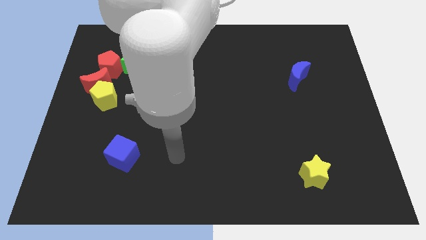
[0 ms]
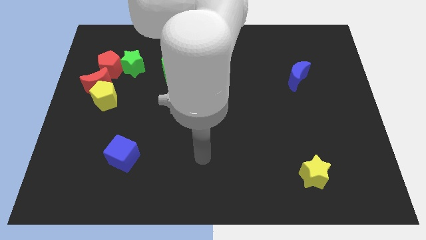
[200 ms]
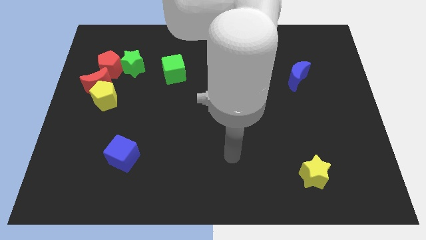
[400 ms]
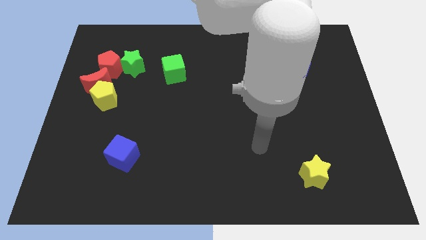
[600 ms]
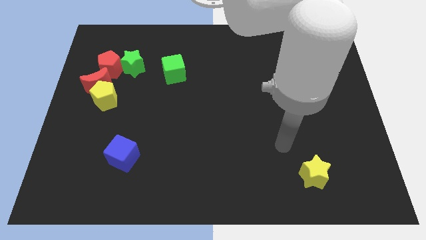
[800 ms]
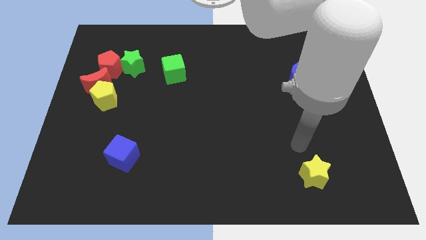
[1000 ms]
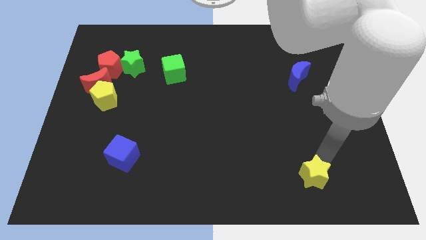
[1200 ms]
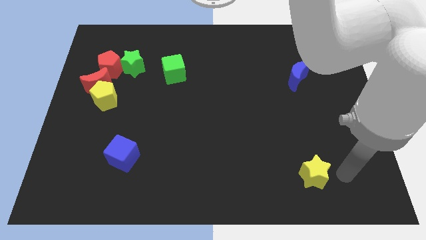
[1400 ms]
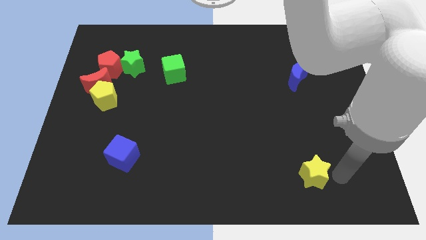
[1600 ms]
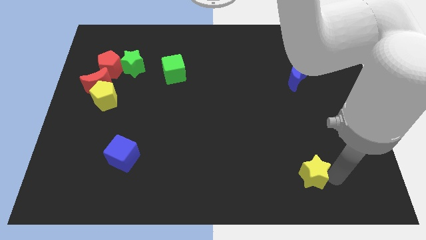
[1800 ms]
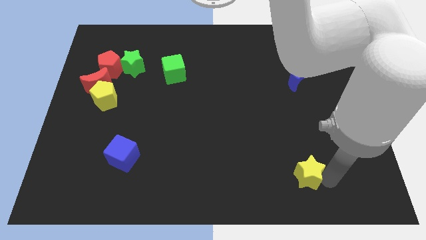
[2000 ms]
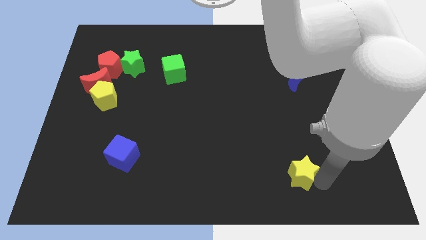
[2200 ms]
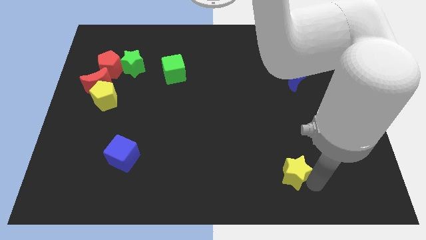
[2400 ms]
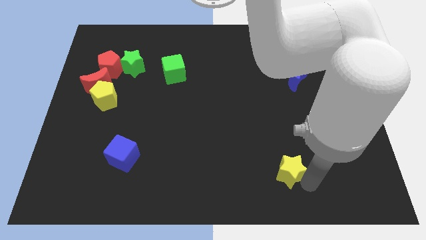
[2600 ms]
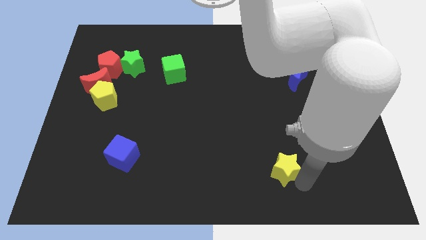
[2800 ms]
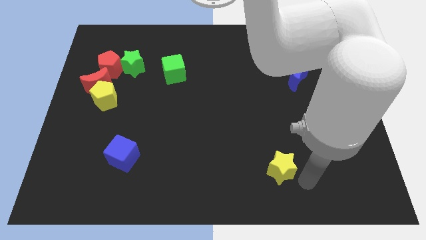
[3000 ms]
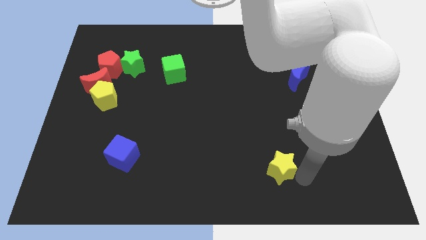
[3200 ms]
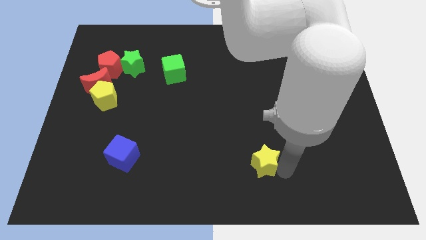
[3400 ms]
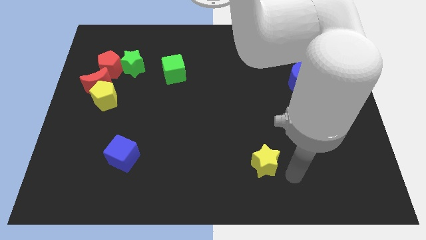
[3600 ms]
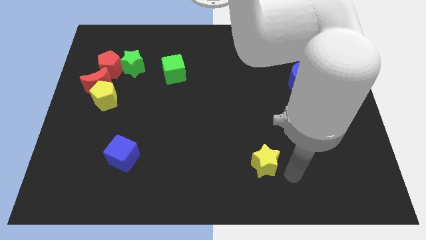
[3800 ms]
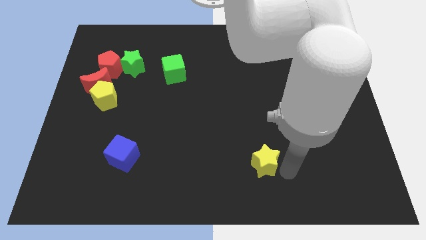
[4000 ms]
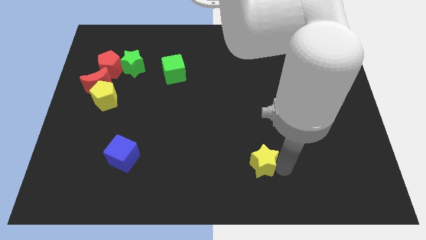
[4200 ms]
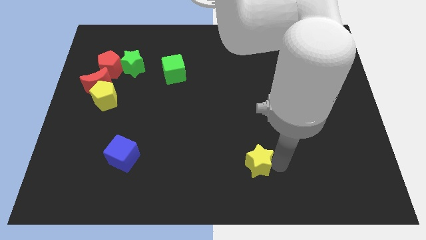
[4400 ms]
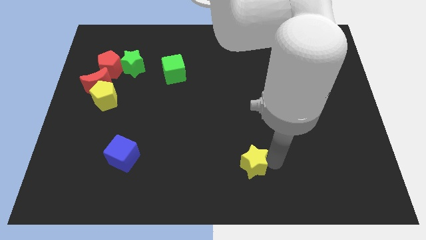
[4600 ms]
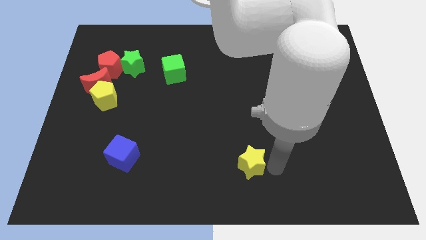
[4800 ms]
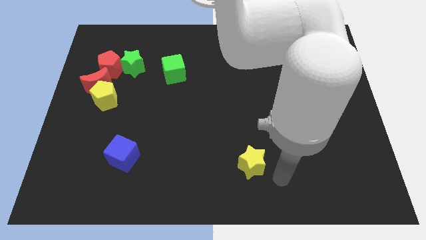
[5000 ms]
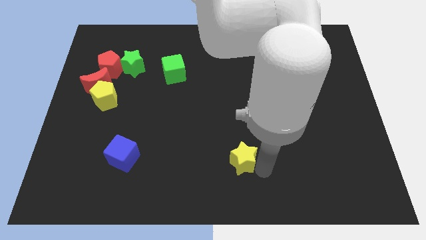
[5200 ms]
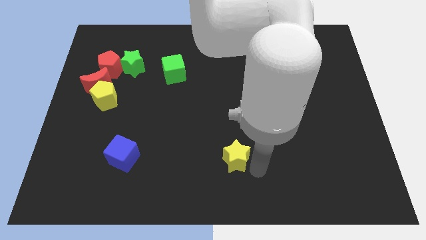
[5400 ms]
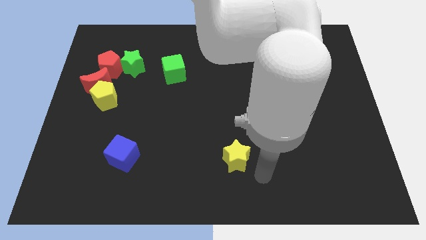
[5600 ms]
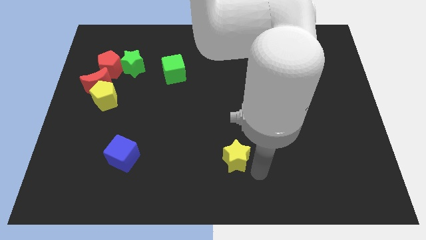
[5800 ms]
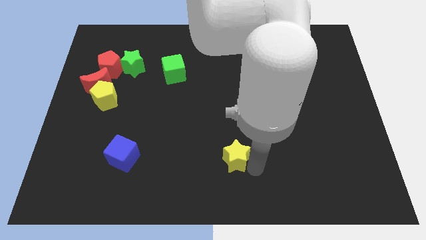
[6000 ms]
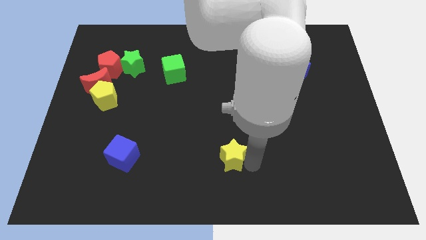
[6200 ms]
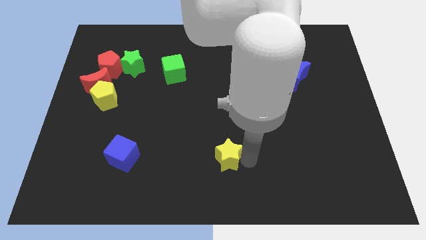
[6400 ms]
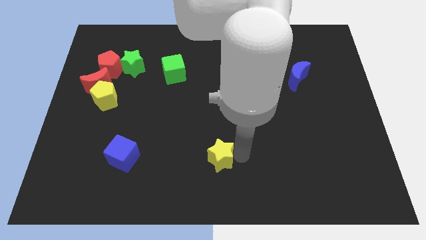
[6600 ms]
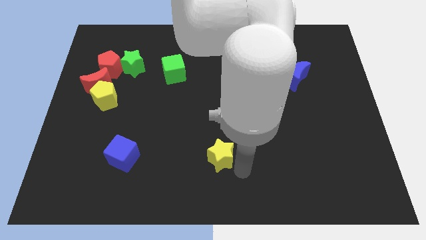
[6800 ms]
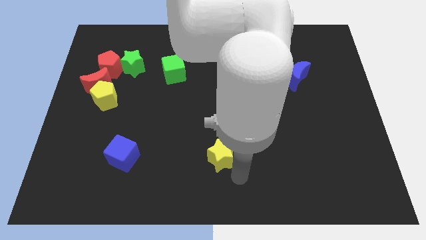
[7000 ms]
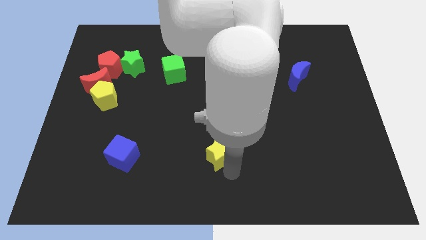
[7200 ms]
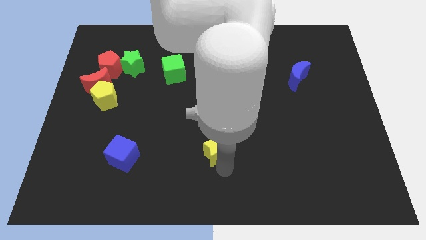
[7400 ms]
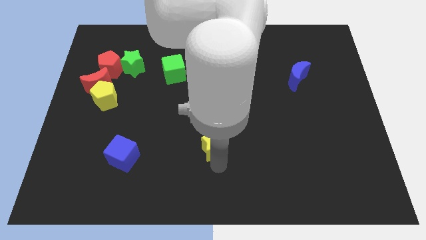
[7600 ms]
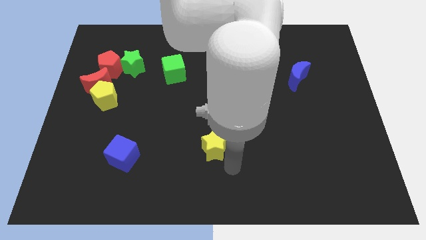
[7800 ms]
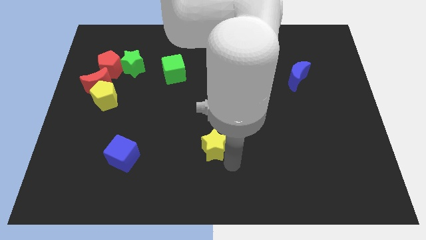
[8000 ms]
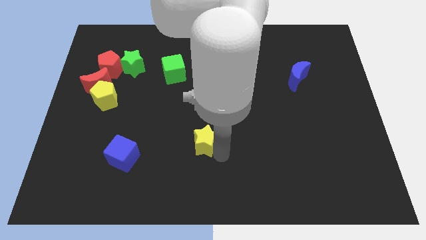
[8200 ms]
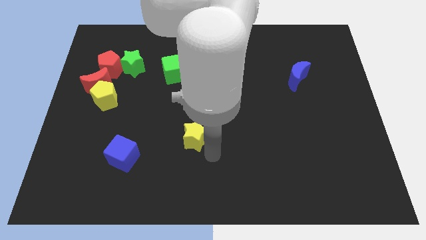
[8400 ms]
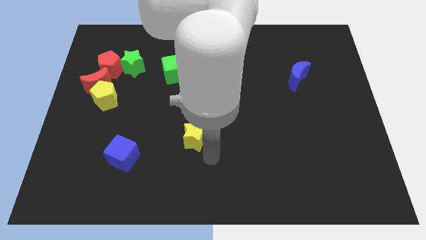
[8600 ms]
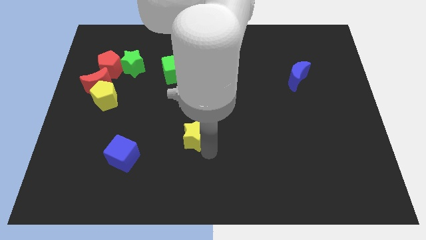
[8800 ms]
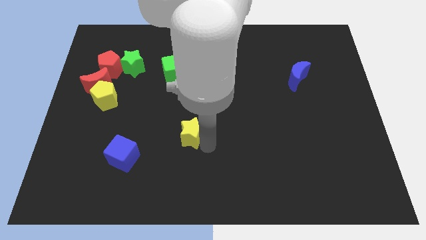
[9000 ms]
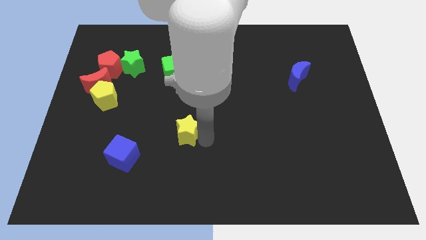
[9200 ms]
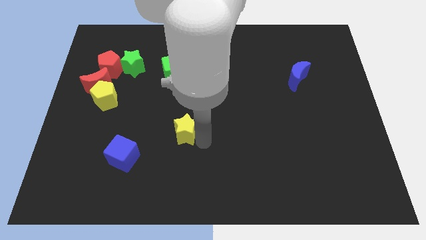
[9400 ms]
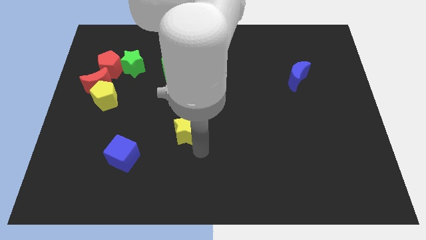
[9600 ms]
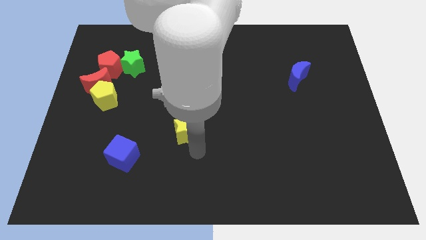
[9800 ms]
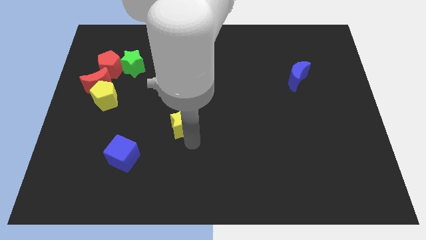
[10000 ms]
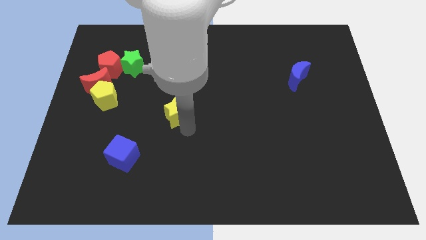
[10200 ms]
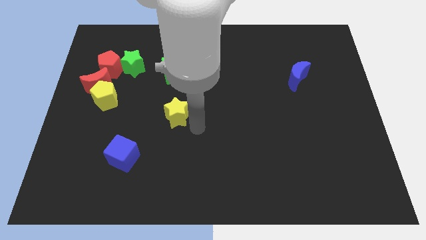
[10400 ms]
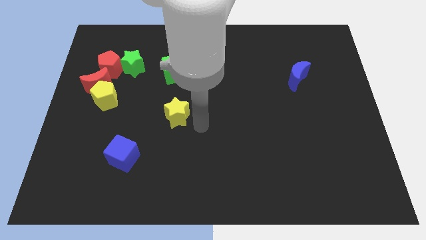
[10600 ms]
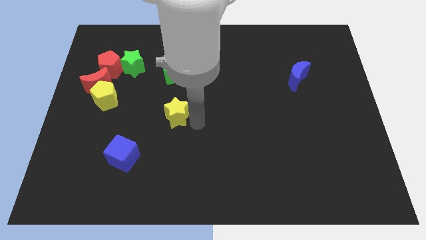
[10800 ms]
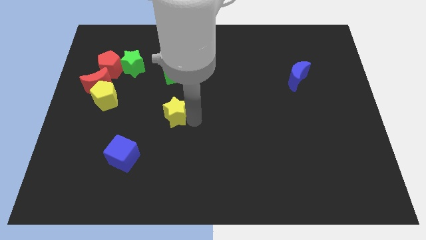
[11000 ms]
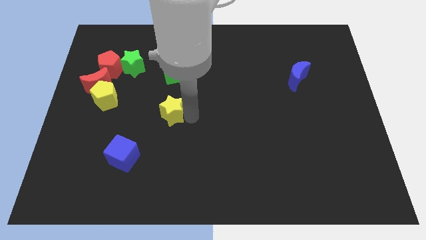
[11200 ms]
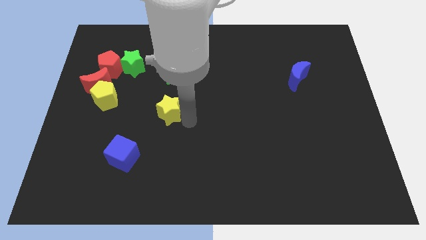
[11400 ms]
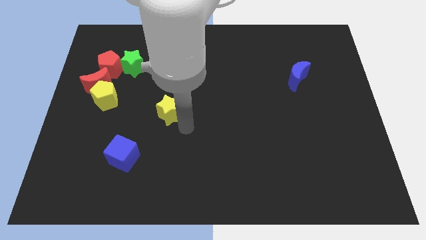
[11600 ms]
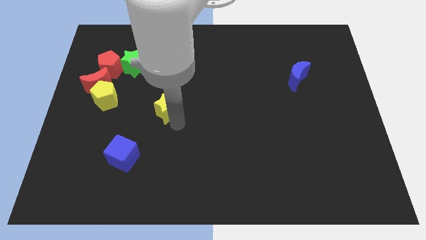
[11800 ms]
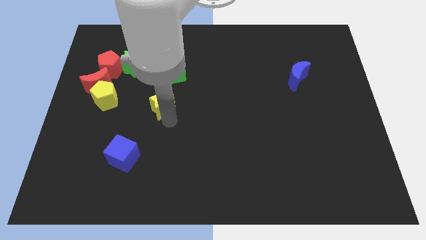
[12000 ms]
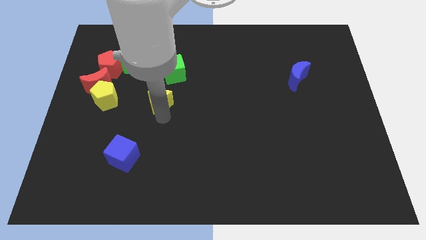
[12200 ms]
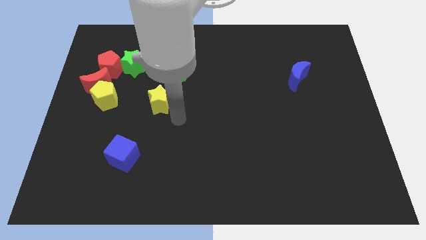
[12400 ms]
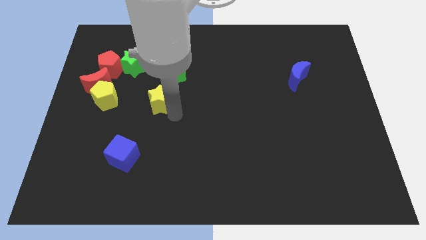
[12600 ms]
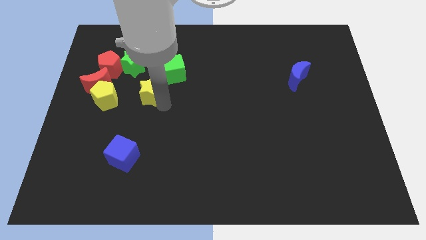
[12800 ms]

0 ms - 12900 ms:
push the yellow star to the right of the red moon

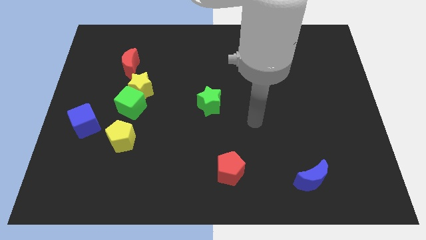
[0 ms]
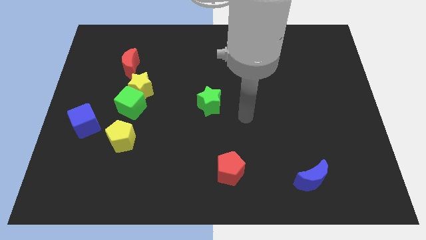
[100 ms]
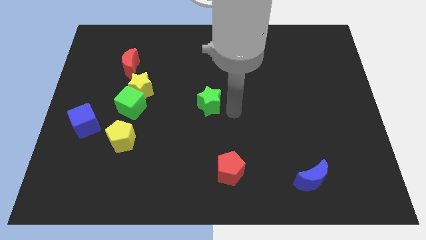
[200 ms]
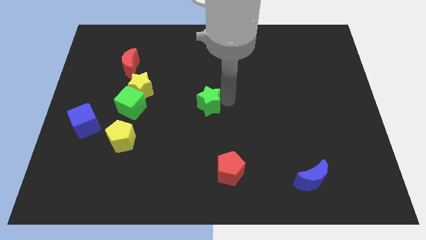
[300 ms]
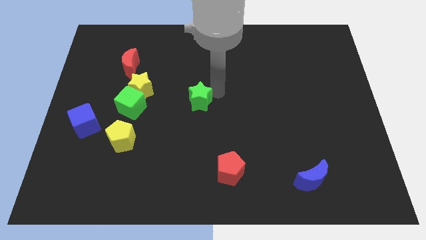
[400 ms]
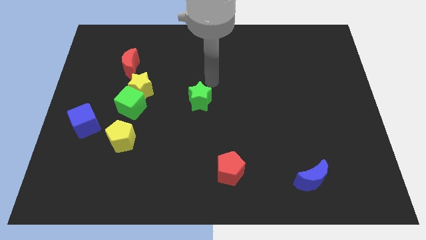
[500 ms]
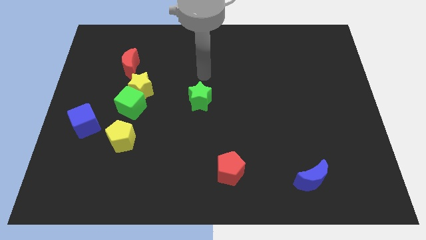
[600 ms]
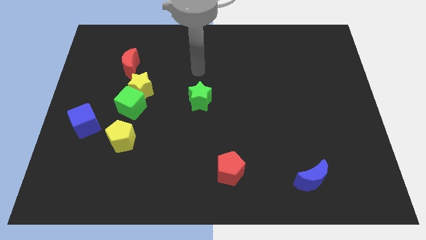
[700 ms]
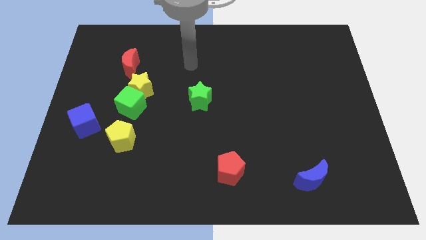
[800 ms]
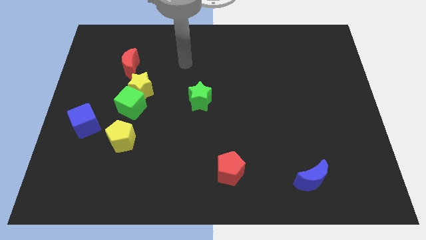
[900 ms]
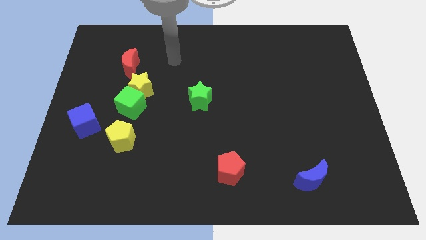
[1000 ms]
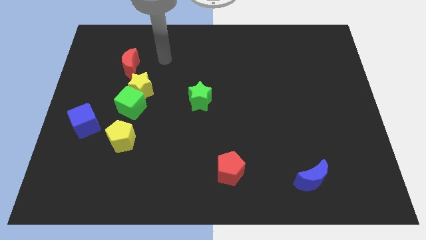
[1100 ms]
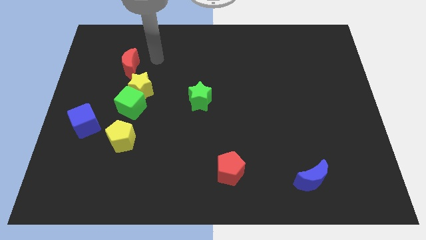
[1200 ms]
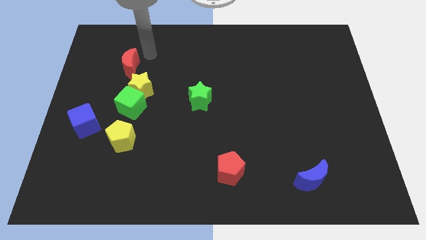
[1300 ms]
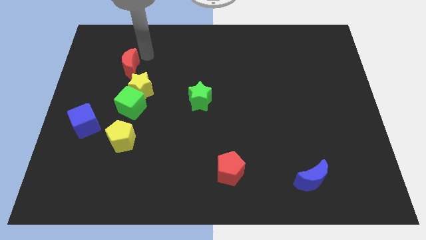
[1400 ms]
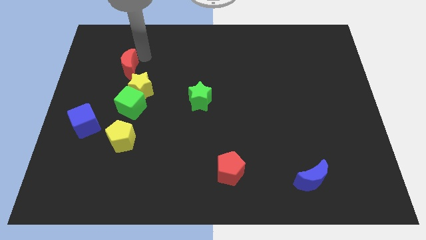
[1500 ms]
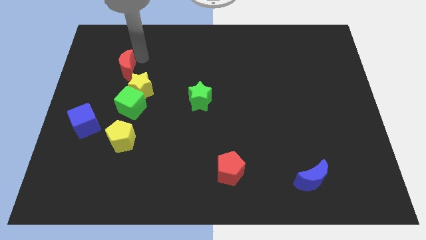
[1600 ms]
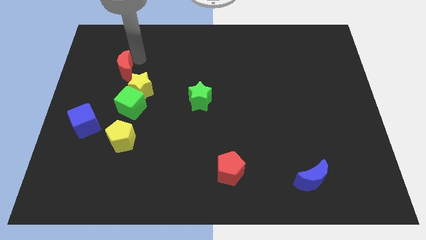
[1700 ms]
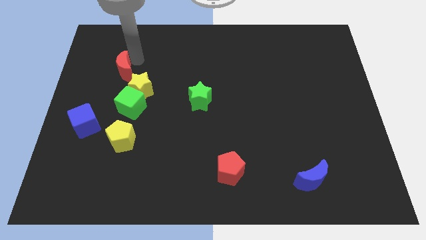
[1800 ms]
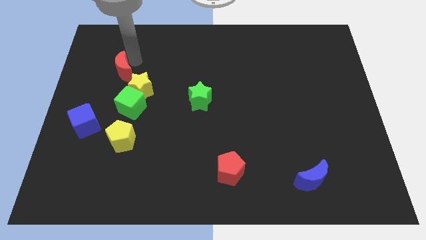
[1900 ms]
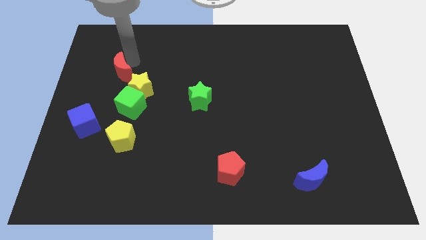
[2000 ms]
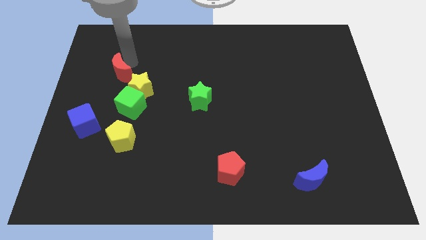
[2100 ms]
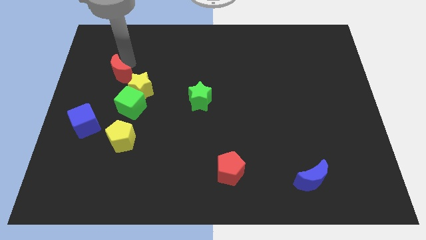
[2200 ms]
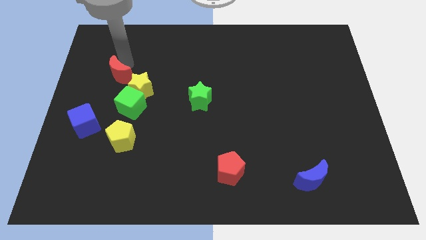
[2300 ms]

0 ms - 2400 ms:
slide the red moon left of the yellow star
